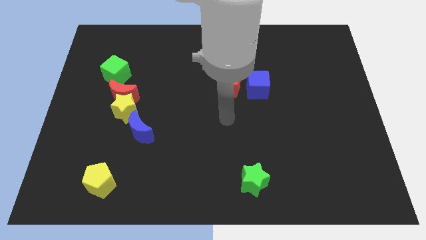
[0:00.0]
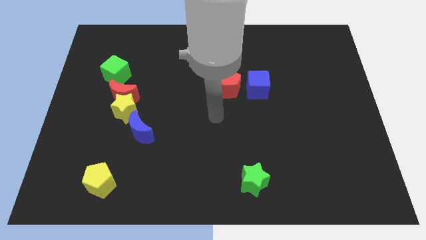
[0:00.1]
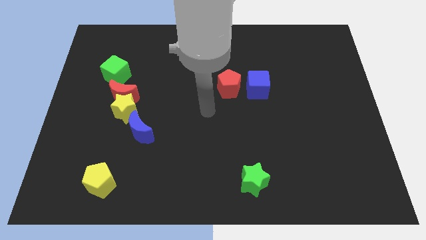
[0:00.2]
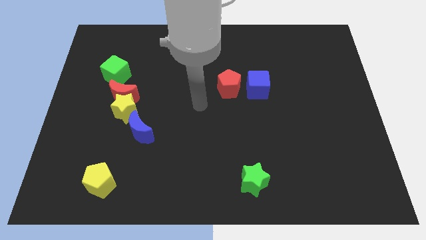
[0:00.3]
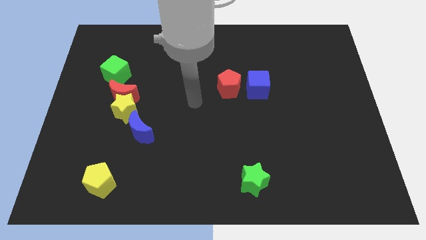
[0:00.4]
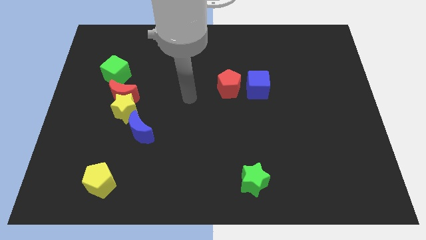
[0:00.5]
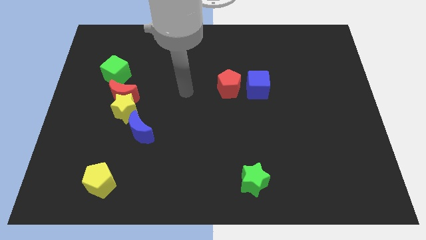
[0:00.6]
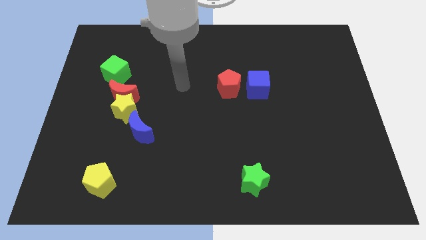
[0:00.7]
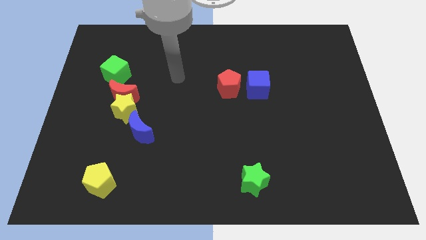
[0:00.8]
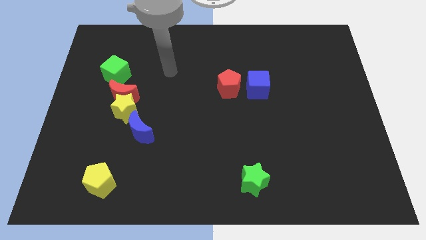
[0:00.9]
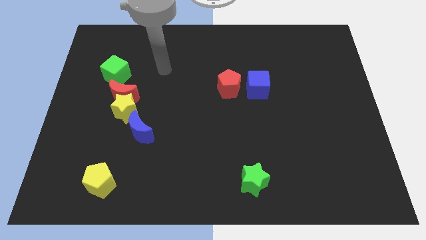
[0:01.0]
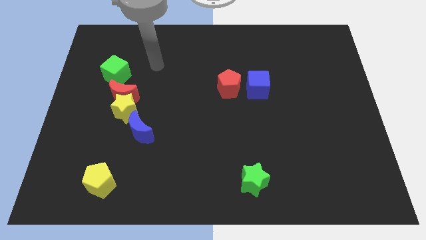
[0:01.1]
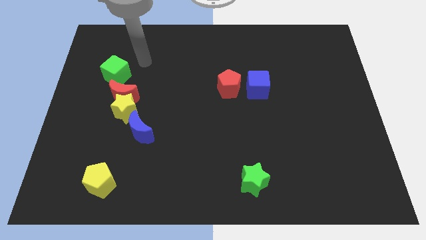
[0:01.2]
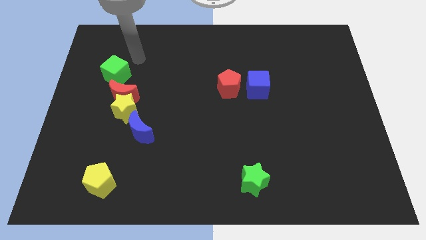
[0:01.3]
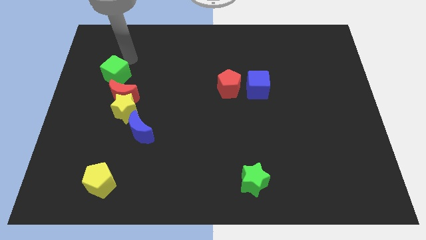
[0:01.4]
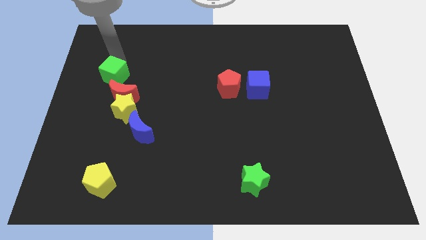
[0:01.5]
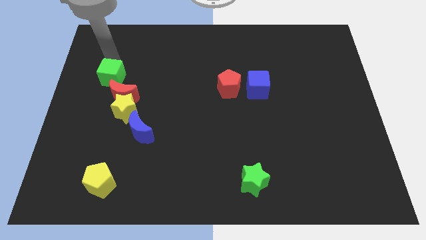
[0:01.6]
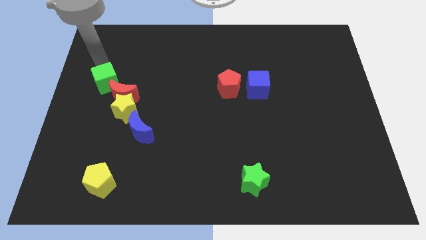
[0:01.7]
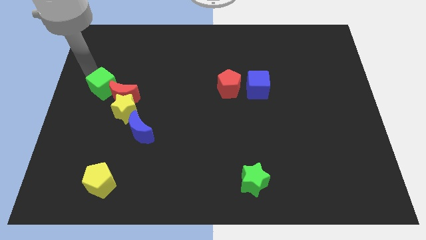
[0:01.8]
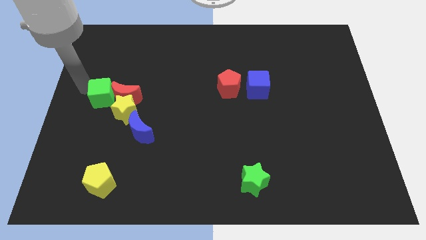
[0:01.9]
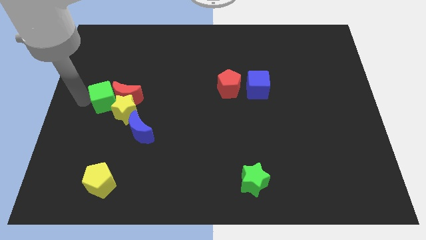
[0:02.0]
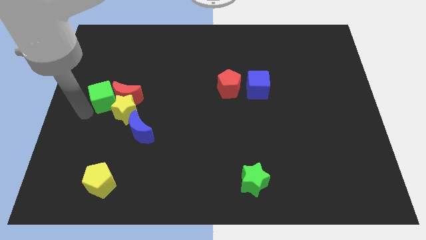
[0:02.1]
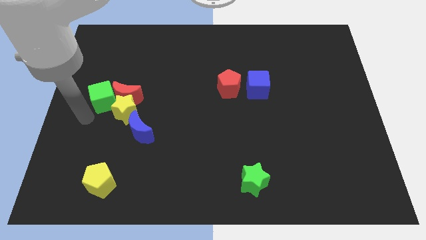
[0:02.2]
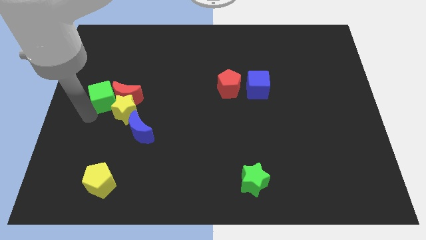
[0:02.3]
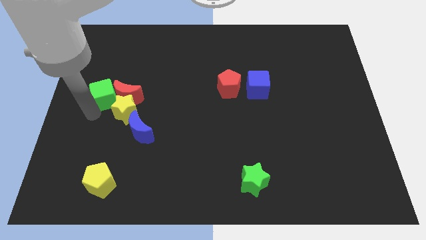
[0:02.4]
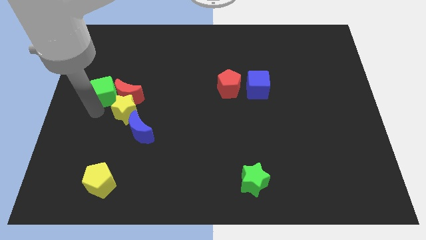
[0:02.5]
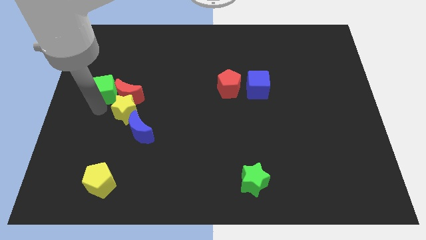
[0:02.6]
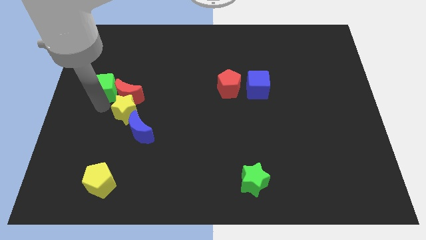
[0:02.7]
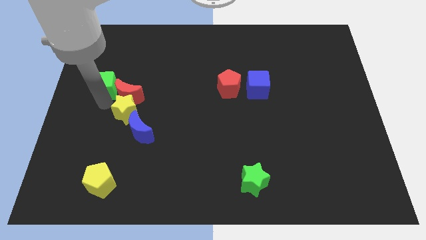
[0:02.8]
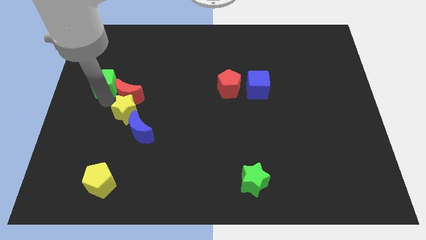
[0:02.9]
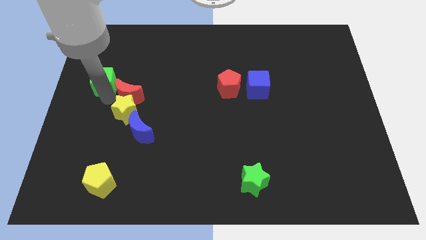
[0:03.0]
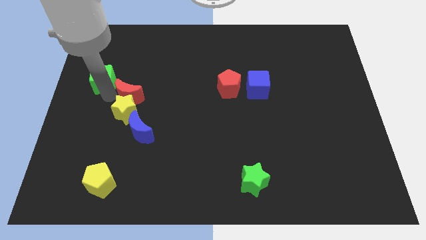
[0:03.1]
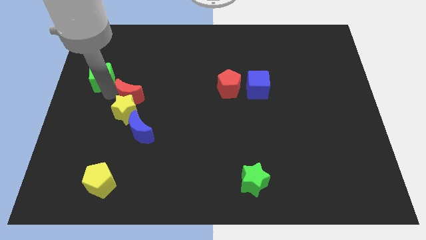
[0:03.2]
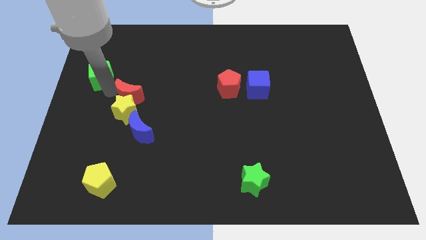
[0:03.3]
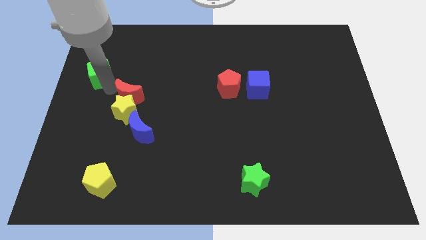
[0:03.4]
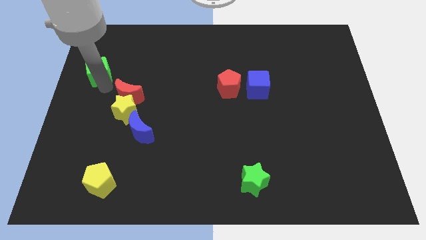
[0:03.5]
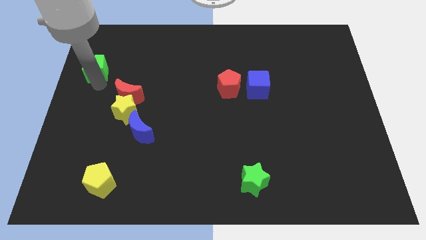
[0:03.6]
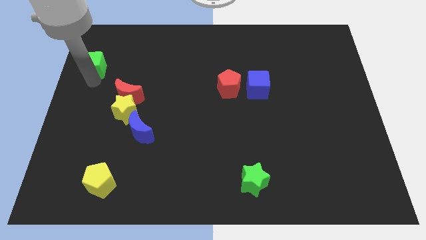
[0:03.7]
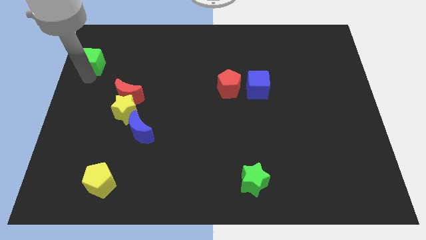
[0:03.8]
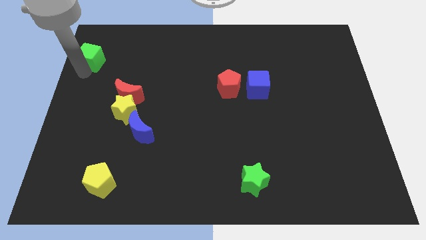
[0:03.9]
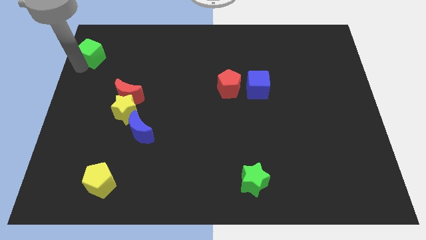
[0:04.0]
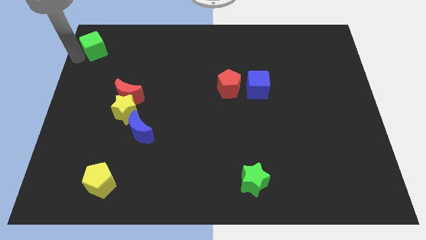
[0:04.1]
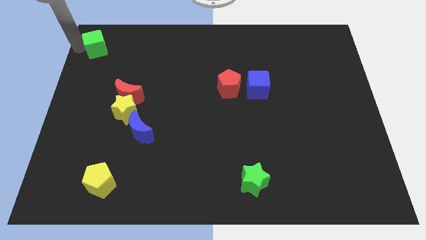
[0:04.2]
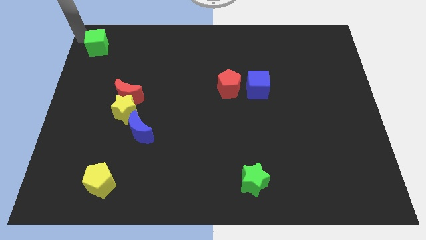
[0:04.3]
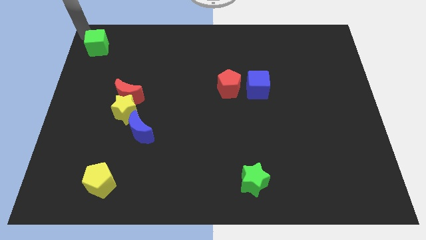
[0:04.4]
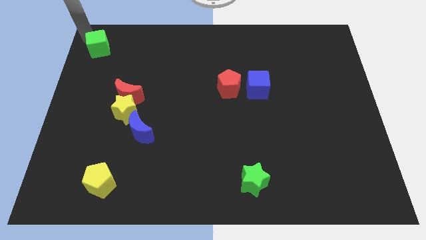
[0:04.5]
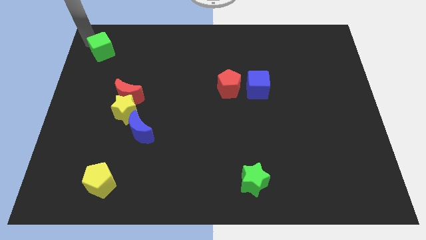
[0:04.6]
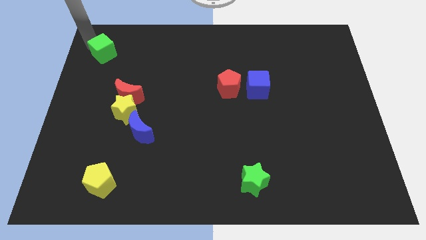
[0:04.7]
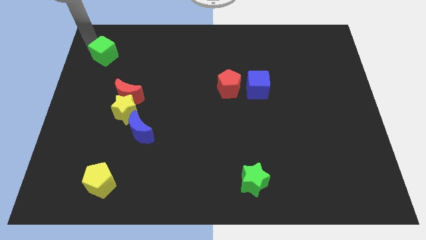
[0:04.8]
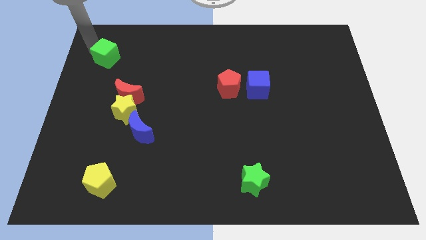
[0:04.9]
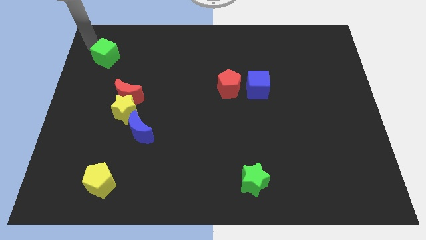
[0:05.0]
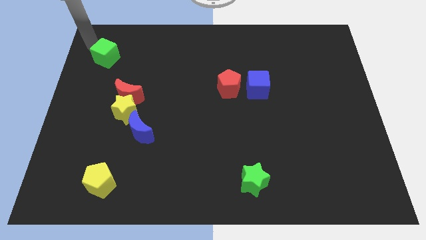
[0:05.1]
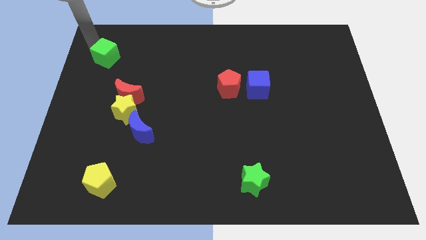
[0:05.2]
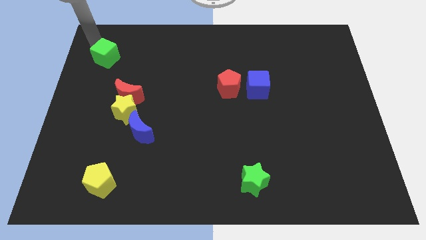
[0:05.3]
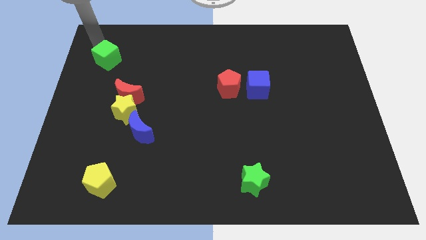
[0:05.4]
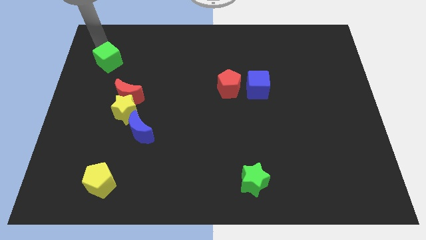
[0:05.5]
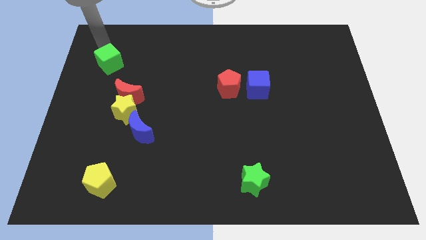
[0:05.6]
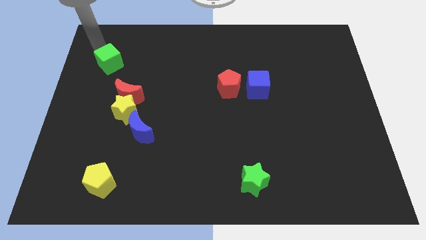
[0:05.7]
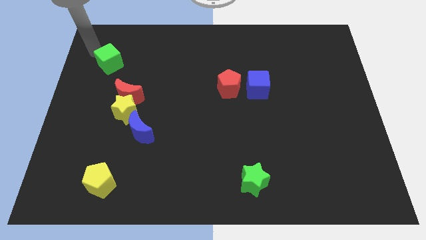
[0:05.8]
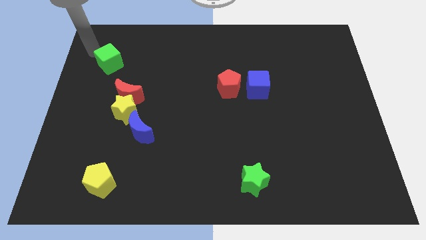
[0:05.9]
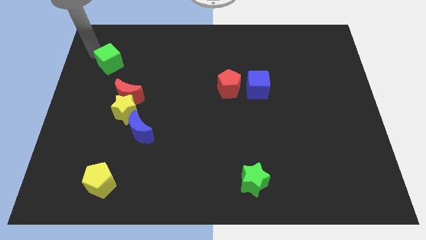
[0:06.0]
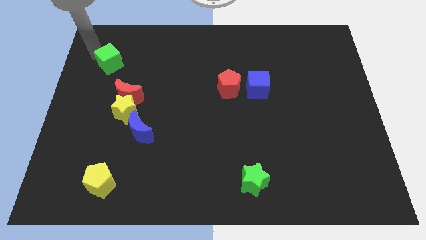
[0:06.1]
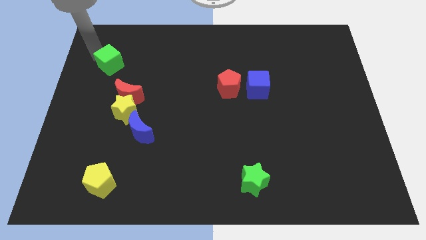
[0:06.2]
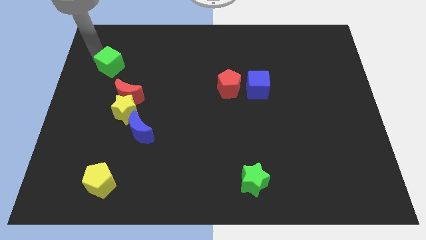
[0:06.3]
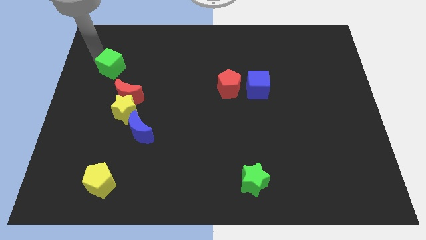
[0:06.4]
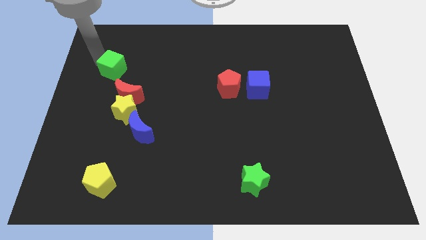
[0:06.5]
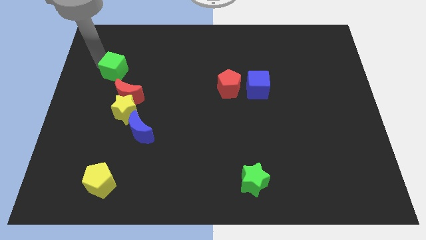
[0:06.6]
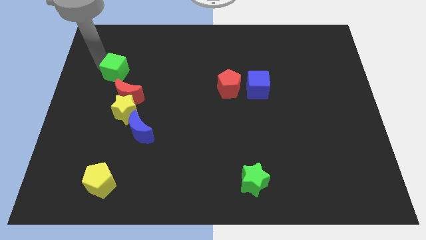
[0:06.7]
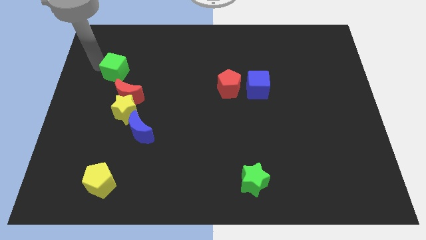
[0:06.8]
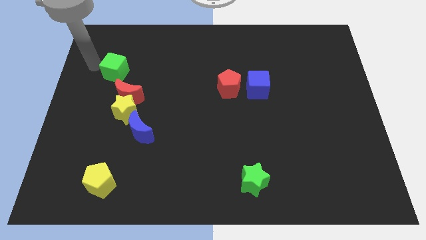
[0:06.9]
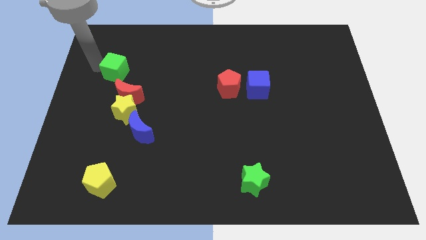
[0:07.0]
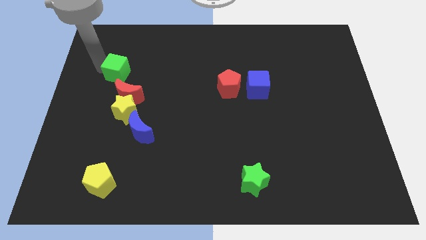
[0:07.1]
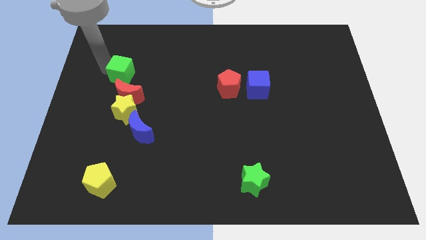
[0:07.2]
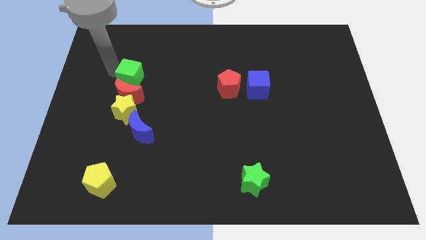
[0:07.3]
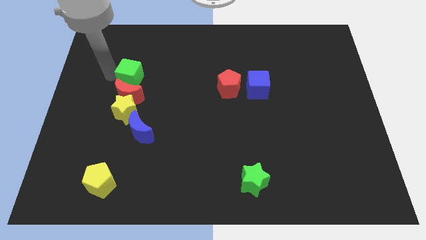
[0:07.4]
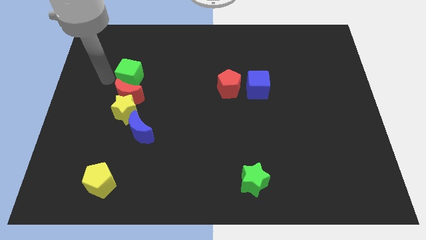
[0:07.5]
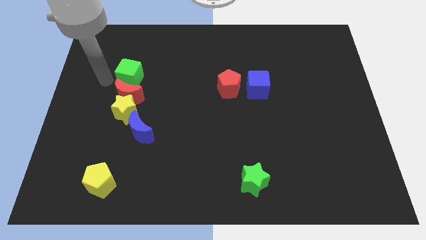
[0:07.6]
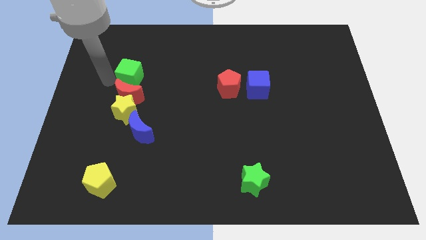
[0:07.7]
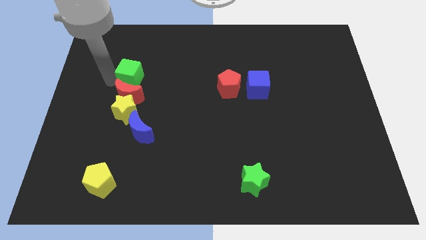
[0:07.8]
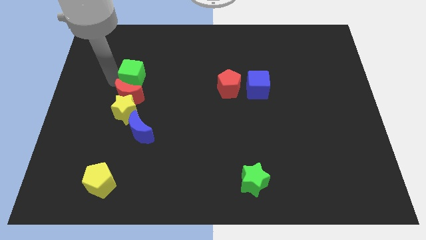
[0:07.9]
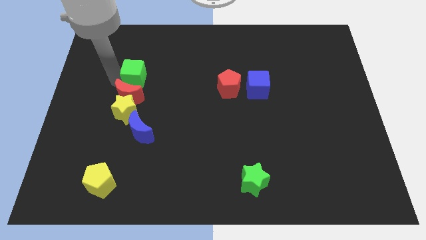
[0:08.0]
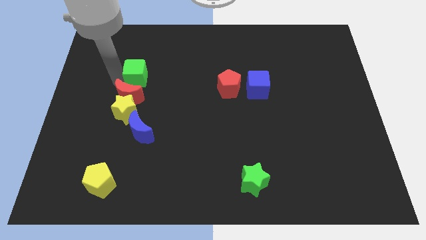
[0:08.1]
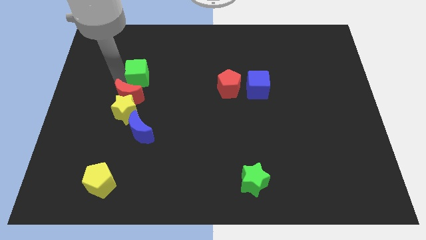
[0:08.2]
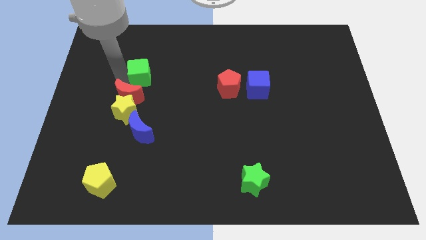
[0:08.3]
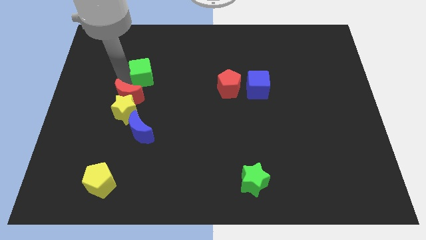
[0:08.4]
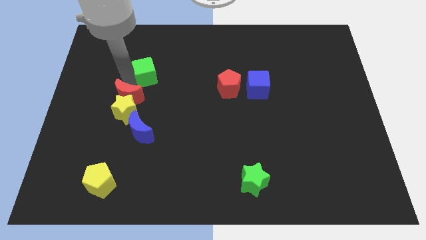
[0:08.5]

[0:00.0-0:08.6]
move the green cube a bit to the right

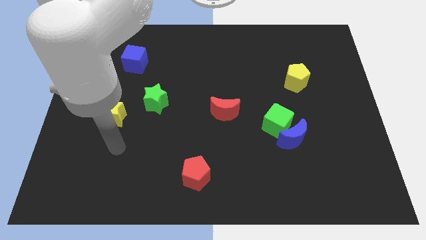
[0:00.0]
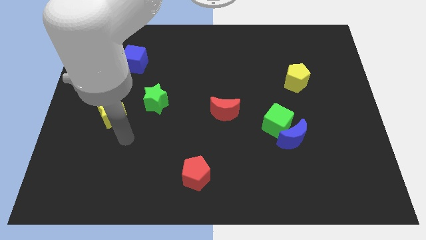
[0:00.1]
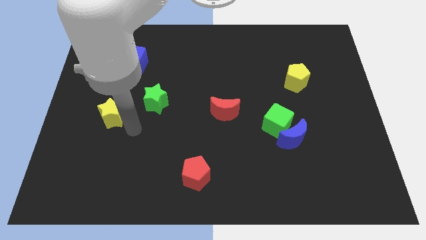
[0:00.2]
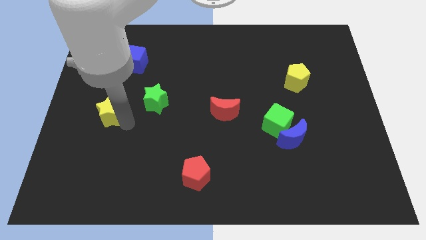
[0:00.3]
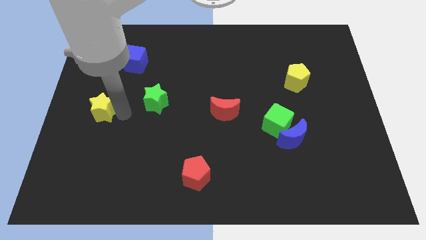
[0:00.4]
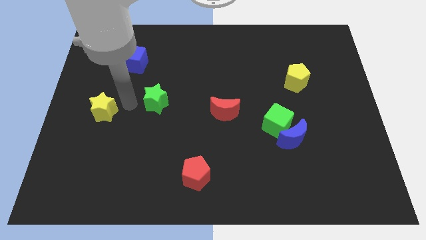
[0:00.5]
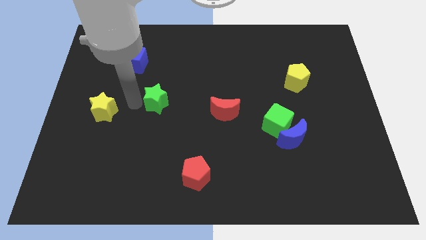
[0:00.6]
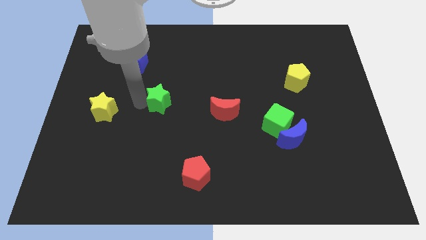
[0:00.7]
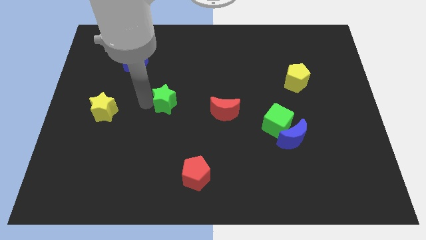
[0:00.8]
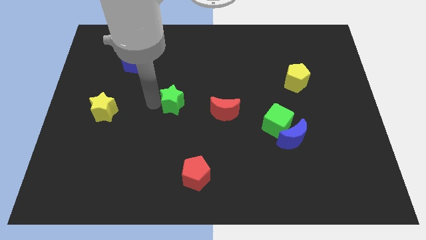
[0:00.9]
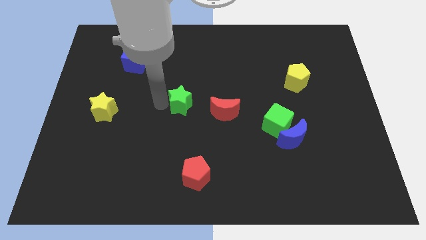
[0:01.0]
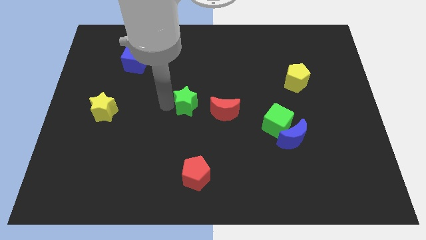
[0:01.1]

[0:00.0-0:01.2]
slightly push the green star to the right
